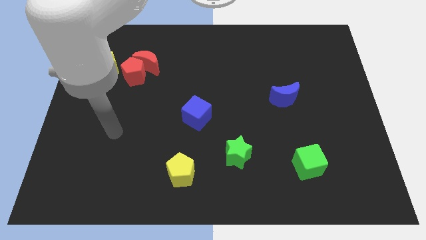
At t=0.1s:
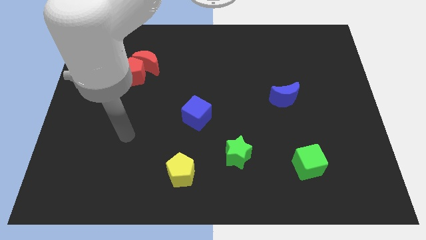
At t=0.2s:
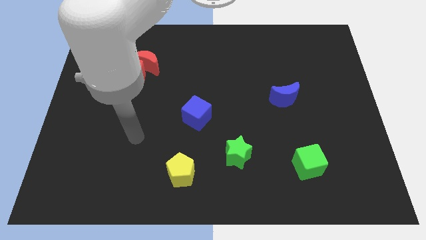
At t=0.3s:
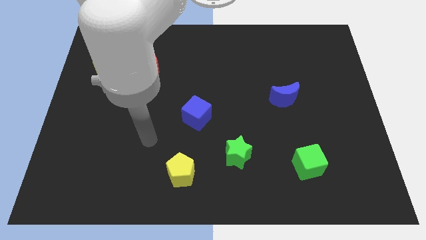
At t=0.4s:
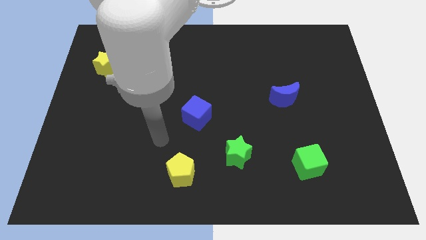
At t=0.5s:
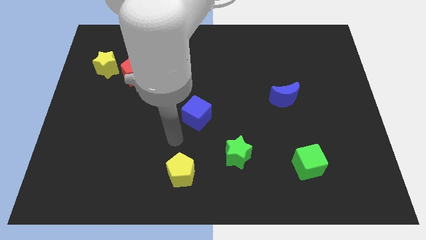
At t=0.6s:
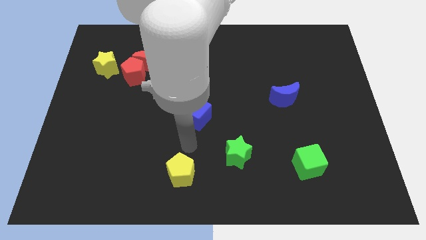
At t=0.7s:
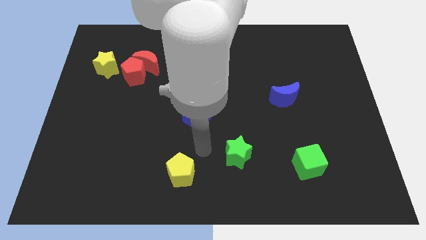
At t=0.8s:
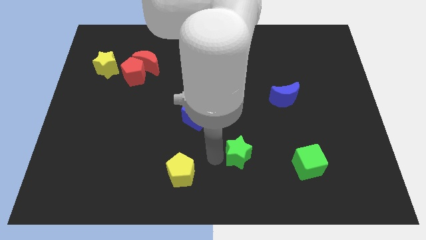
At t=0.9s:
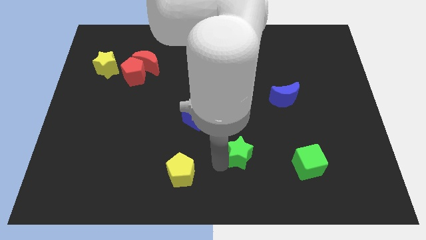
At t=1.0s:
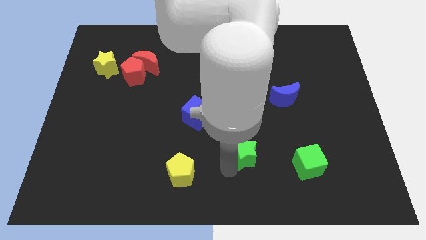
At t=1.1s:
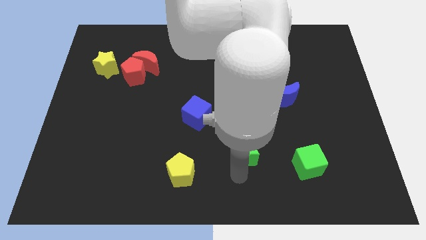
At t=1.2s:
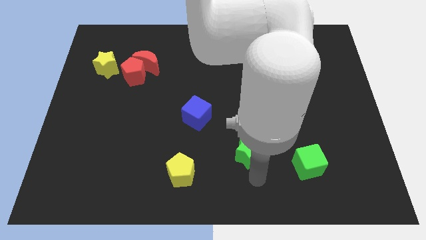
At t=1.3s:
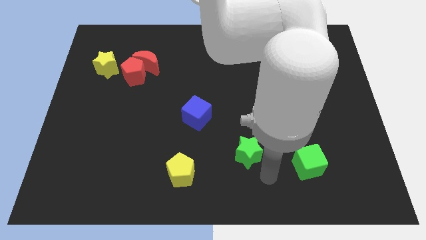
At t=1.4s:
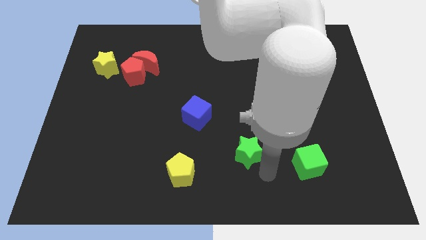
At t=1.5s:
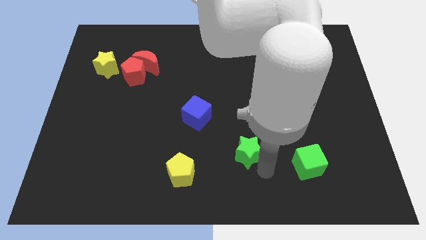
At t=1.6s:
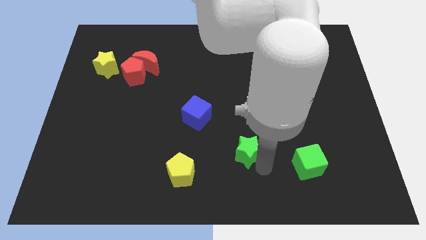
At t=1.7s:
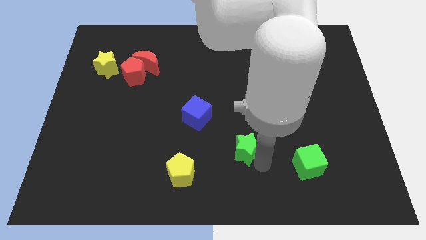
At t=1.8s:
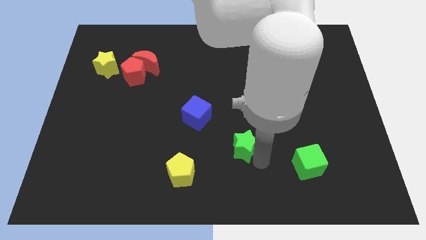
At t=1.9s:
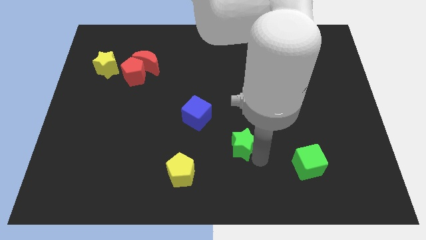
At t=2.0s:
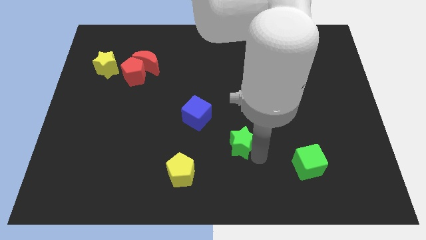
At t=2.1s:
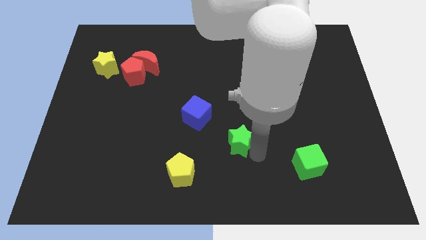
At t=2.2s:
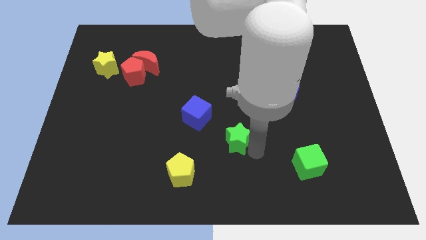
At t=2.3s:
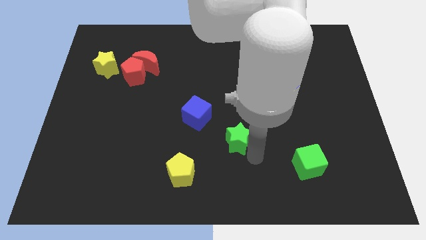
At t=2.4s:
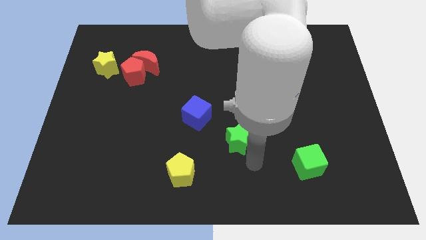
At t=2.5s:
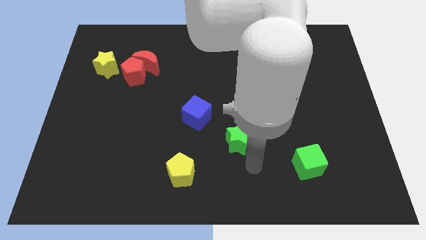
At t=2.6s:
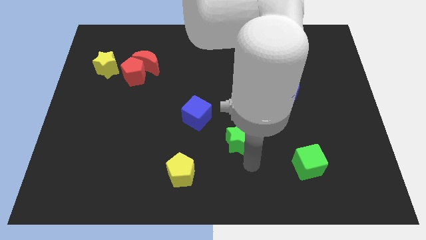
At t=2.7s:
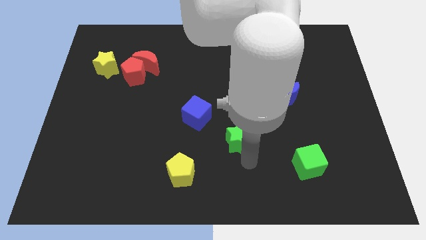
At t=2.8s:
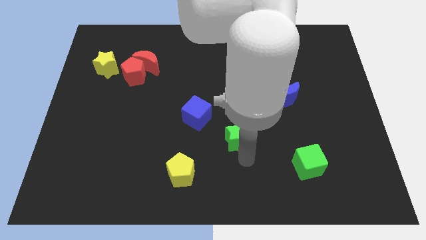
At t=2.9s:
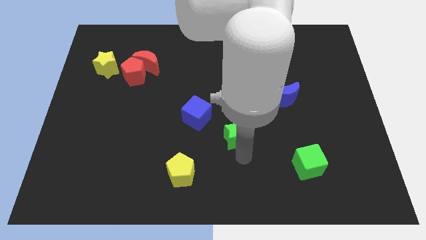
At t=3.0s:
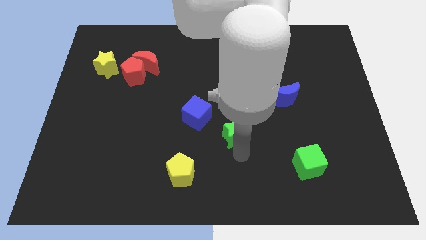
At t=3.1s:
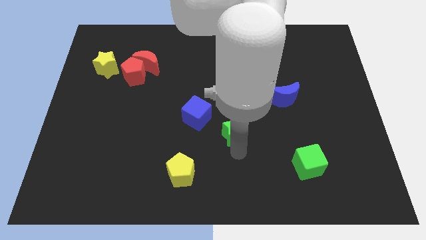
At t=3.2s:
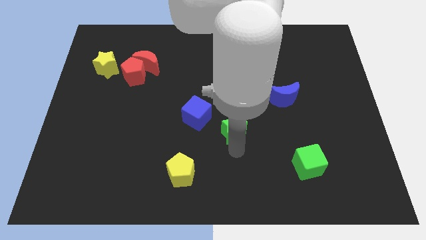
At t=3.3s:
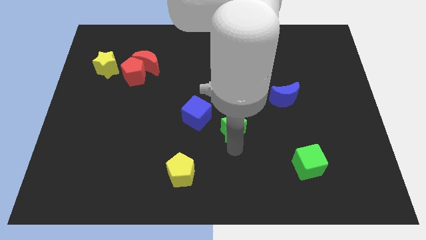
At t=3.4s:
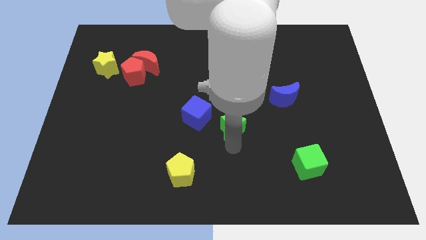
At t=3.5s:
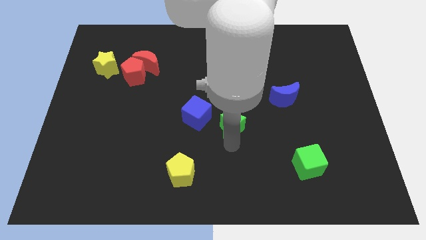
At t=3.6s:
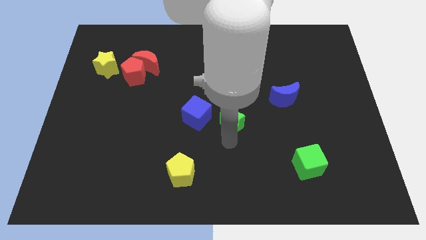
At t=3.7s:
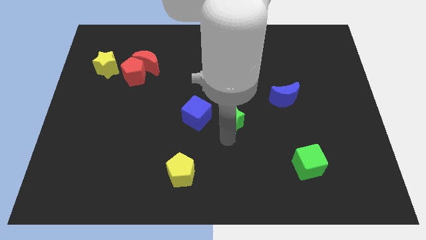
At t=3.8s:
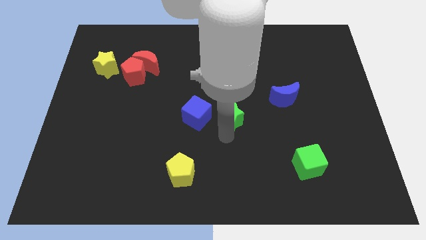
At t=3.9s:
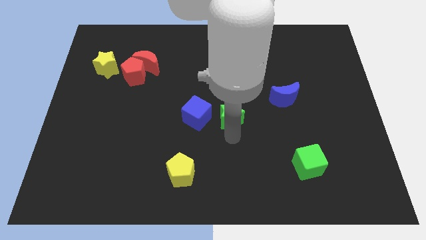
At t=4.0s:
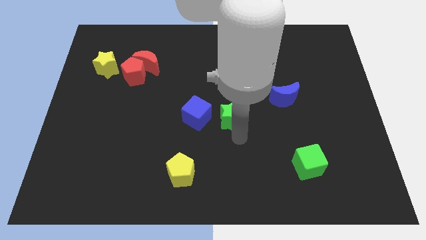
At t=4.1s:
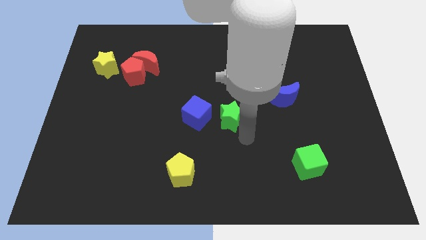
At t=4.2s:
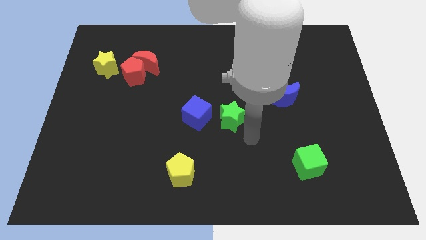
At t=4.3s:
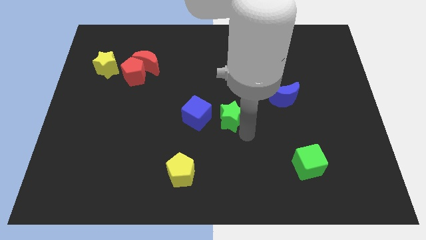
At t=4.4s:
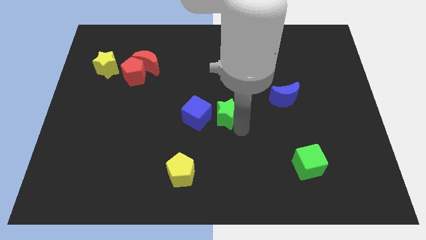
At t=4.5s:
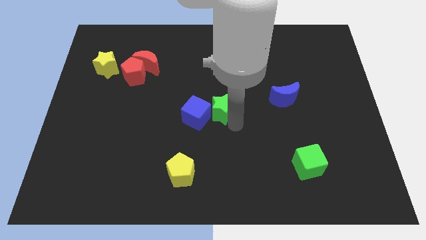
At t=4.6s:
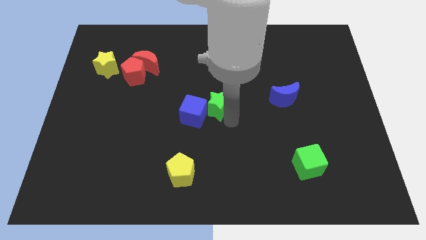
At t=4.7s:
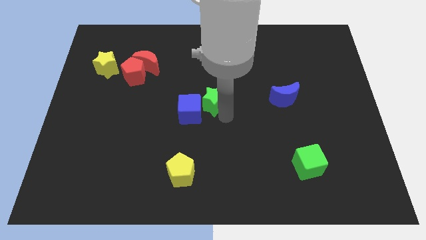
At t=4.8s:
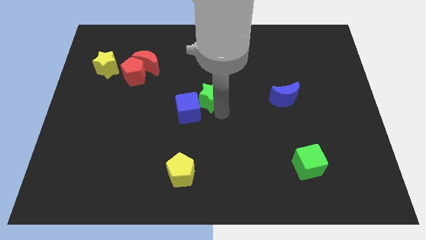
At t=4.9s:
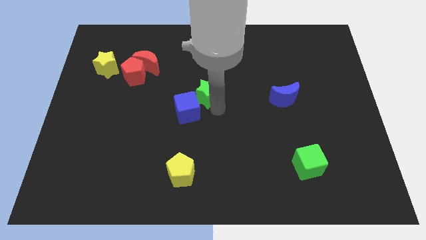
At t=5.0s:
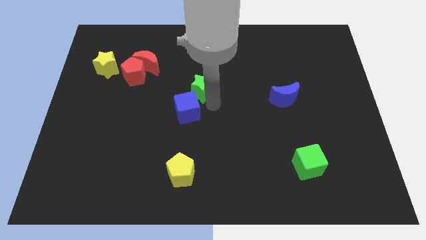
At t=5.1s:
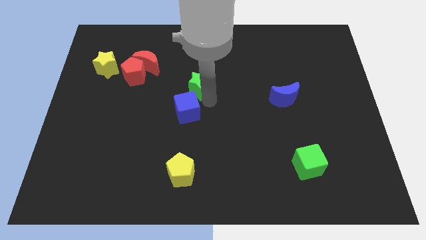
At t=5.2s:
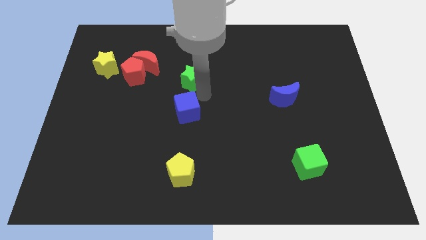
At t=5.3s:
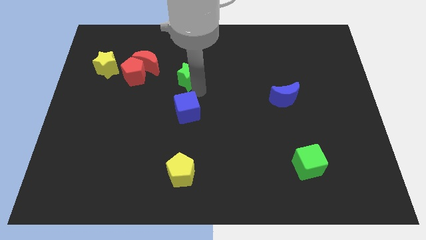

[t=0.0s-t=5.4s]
put the green star right of the red moon

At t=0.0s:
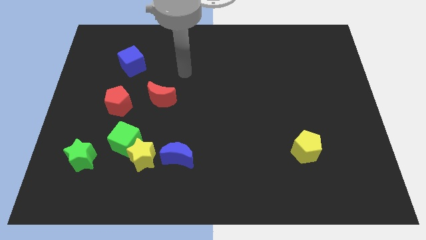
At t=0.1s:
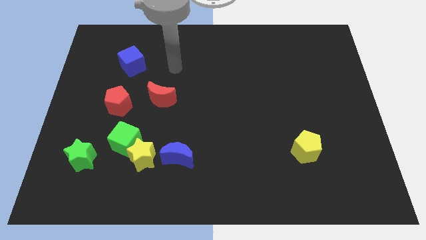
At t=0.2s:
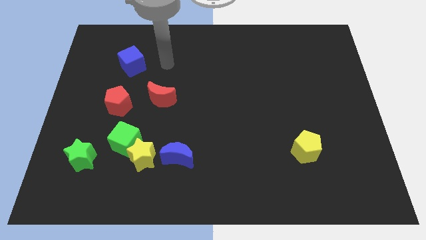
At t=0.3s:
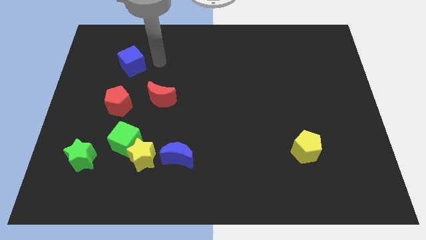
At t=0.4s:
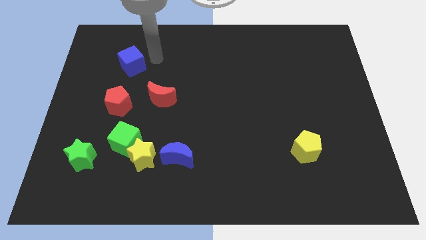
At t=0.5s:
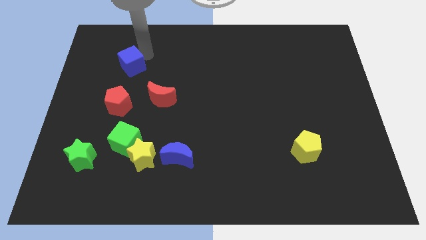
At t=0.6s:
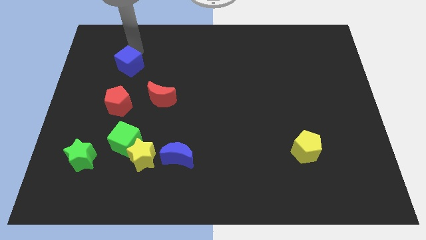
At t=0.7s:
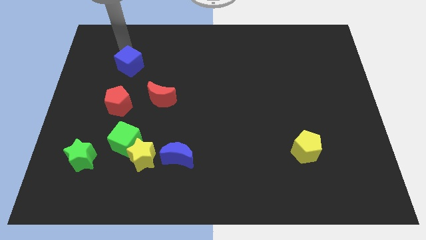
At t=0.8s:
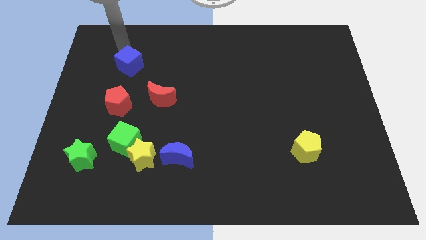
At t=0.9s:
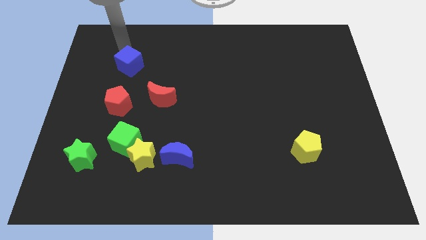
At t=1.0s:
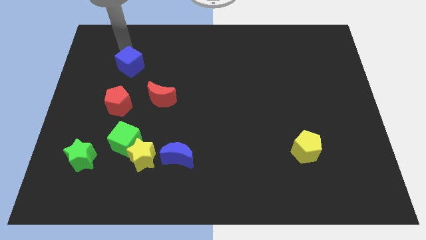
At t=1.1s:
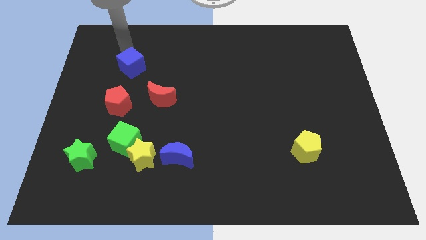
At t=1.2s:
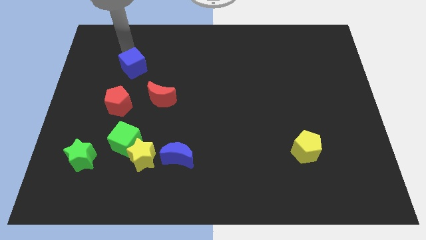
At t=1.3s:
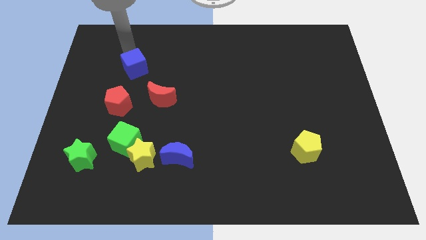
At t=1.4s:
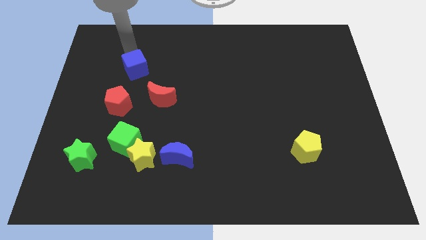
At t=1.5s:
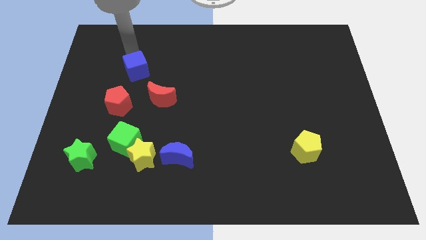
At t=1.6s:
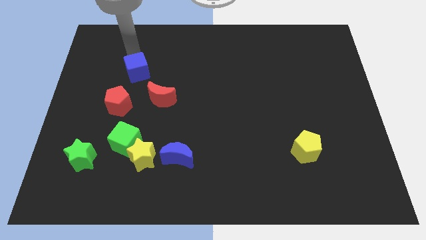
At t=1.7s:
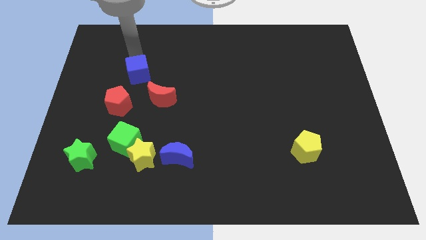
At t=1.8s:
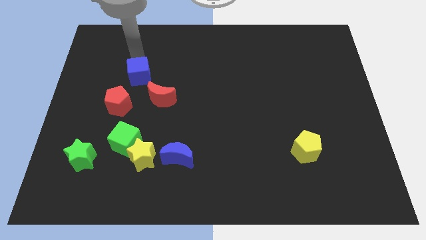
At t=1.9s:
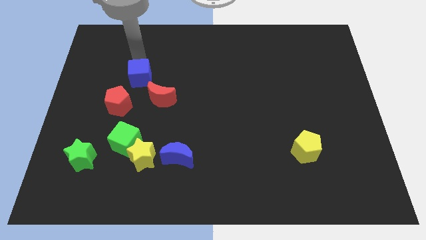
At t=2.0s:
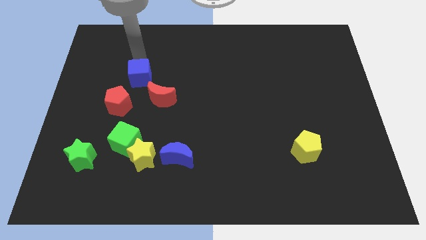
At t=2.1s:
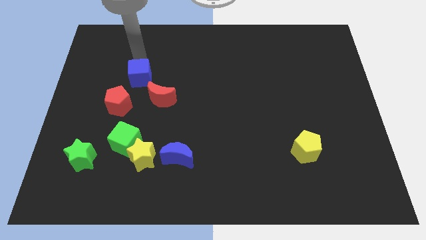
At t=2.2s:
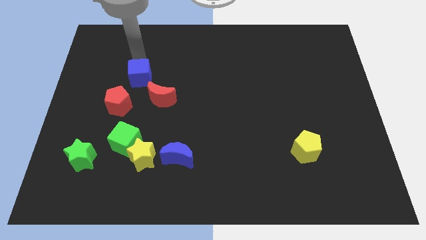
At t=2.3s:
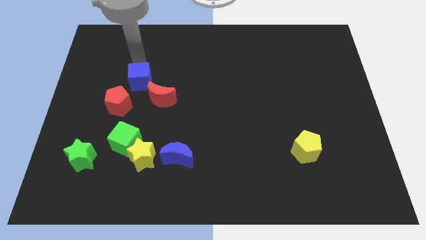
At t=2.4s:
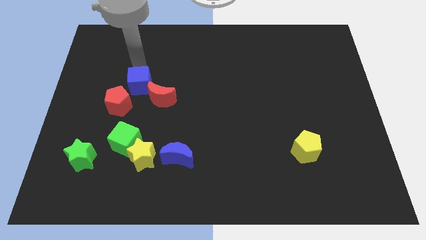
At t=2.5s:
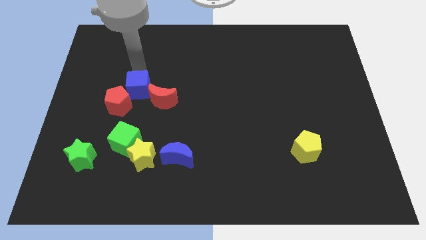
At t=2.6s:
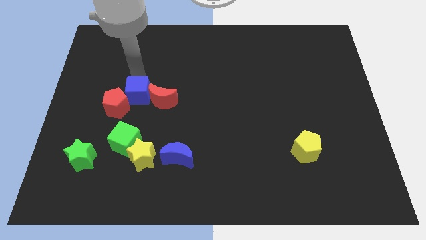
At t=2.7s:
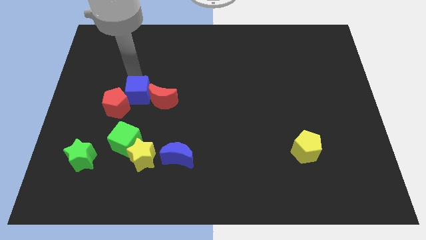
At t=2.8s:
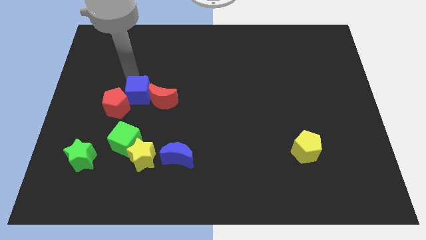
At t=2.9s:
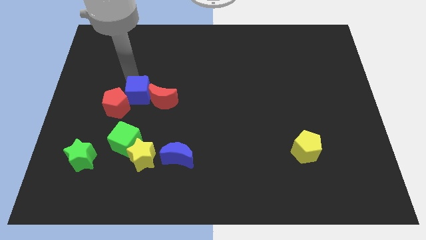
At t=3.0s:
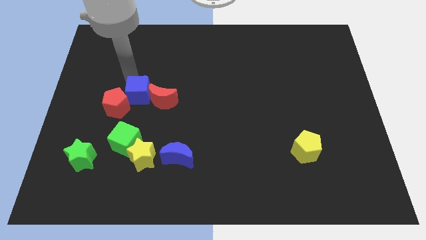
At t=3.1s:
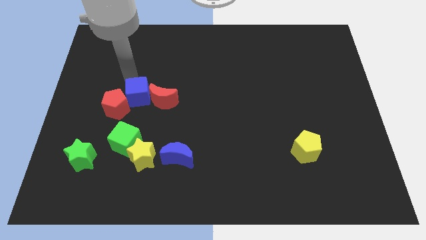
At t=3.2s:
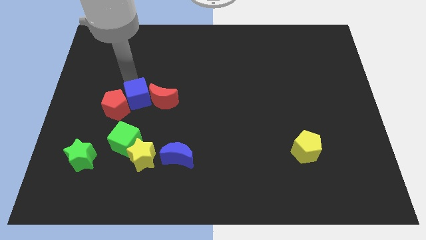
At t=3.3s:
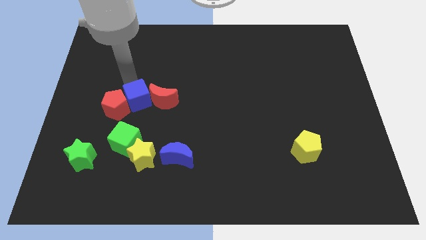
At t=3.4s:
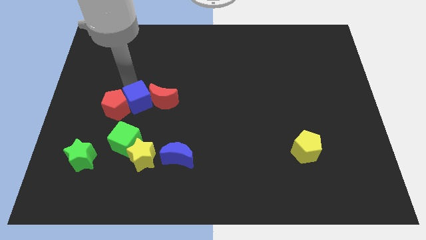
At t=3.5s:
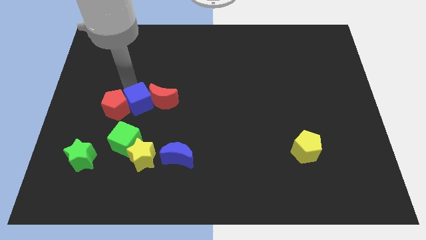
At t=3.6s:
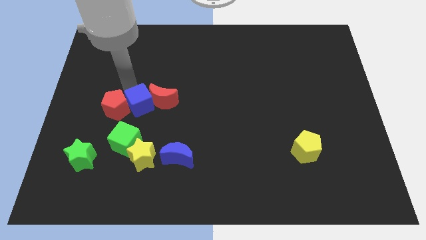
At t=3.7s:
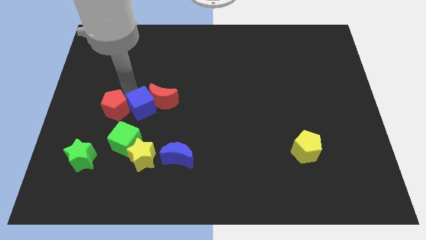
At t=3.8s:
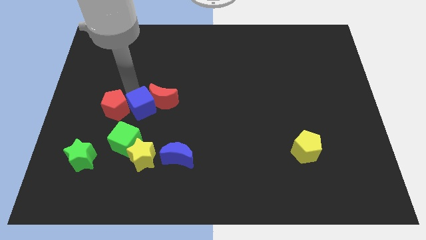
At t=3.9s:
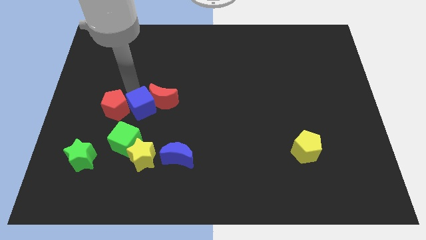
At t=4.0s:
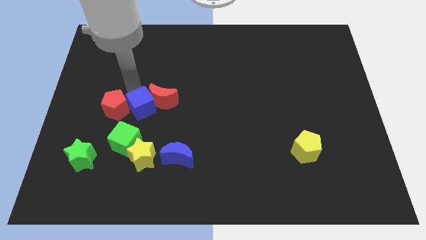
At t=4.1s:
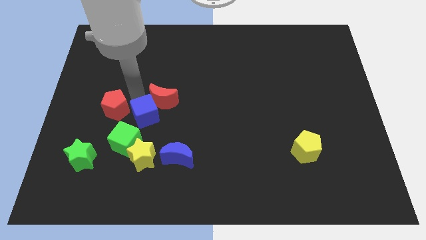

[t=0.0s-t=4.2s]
slide the blue cube to the bottom of the red moon
